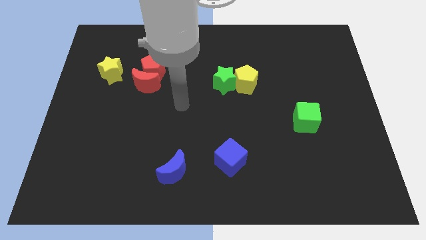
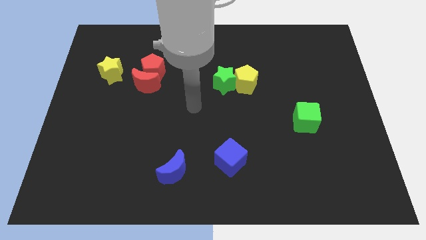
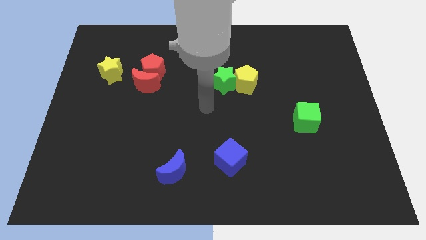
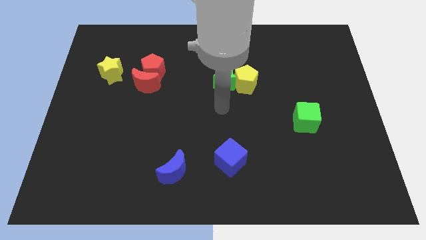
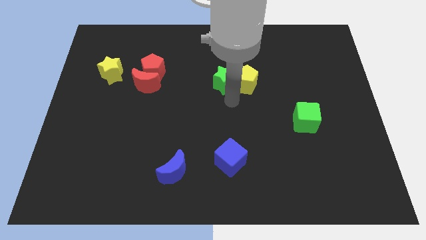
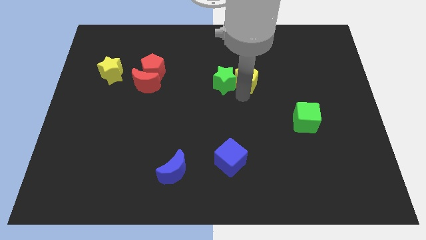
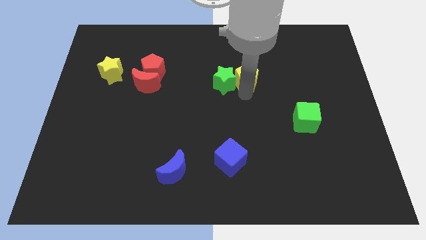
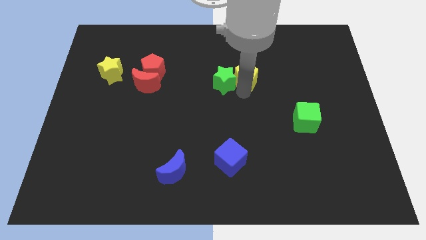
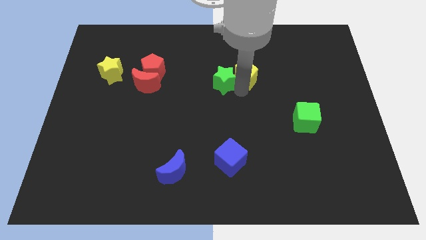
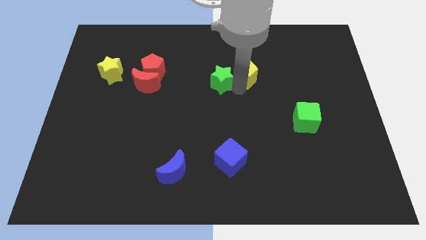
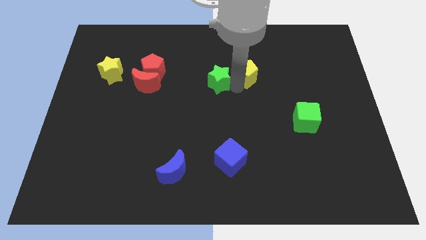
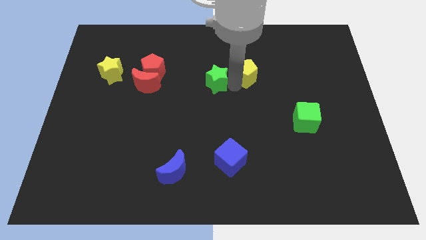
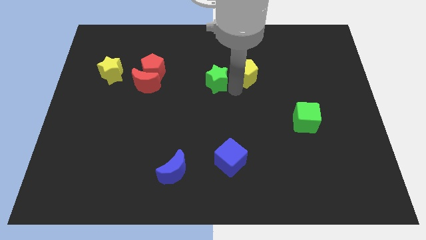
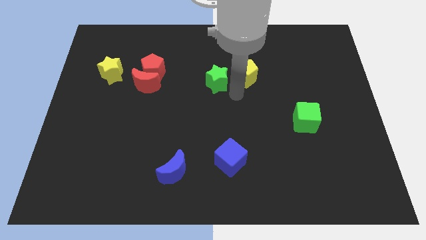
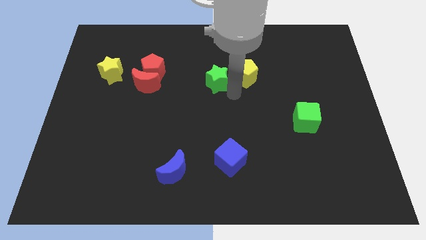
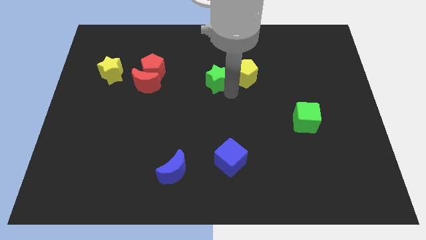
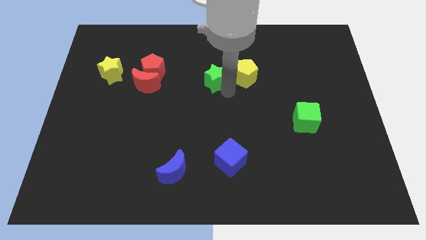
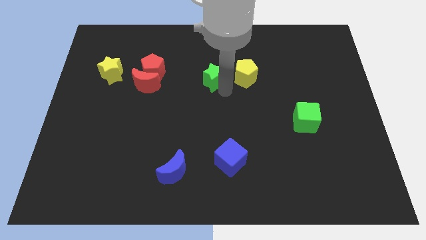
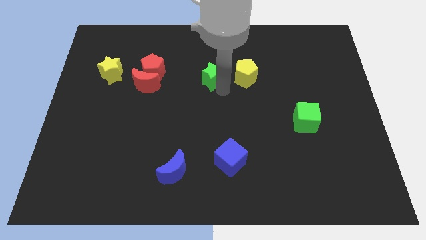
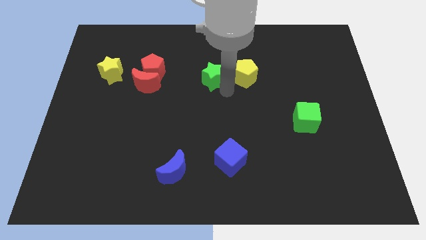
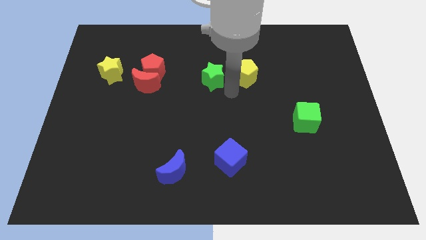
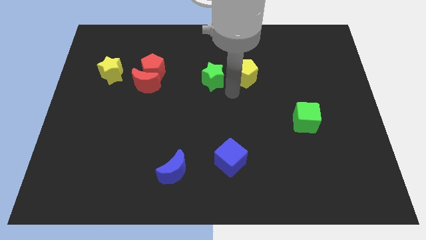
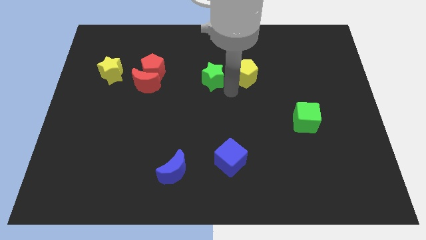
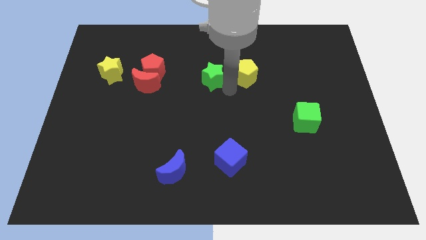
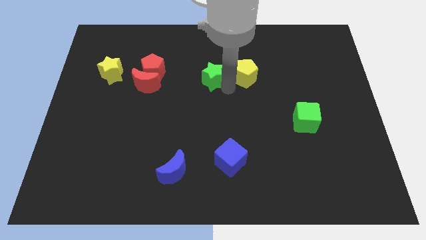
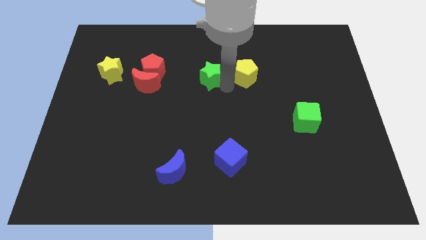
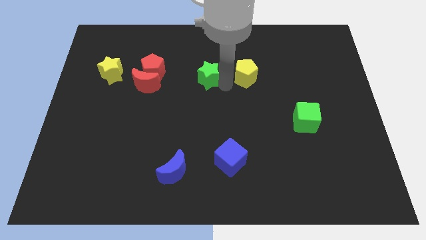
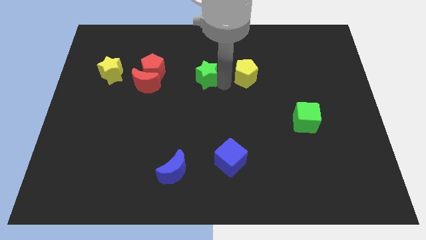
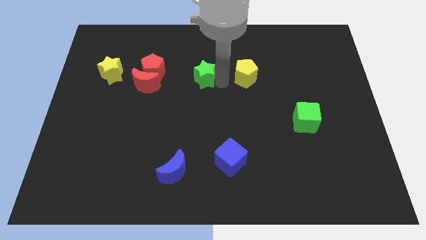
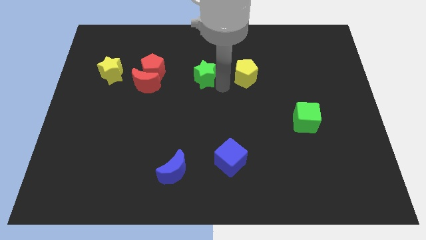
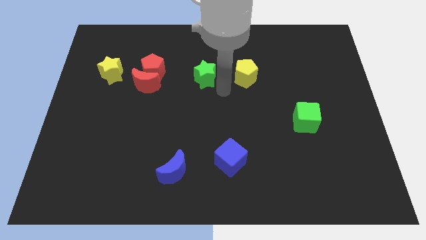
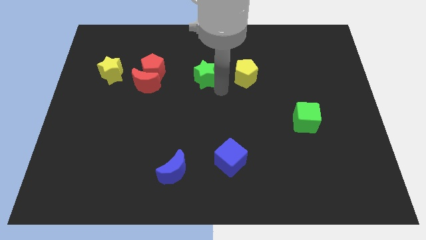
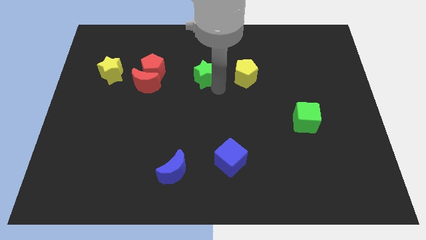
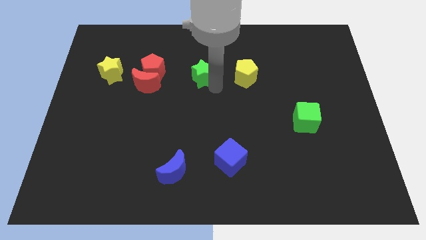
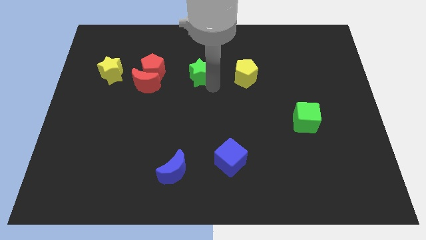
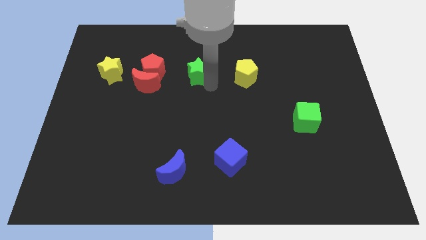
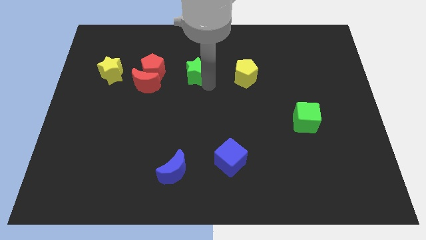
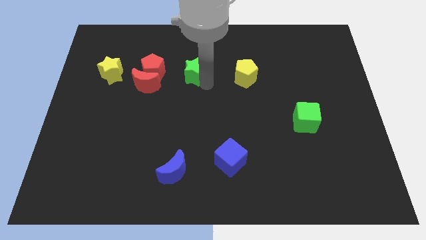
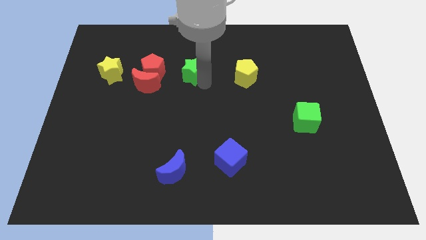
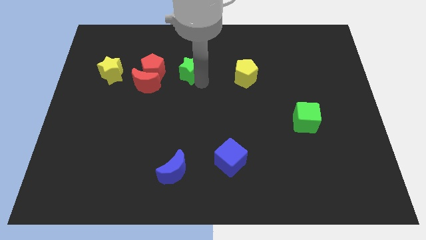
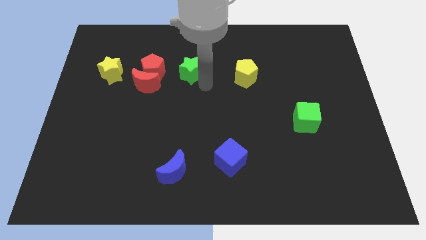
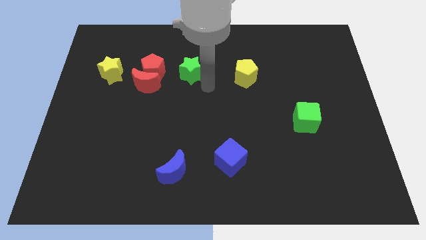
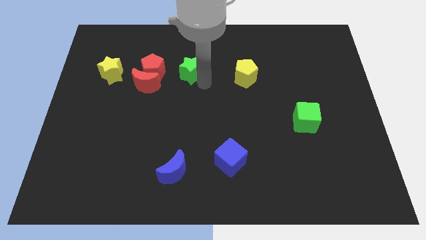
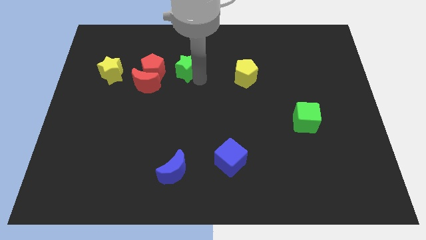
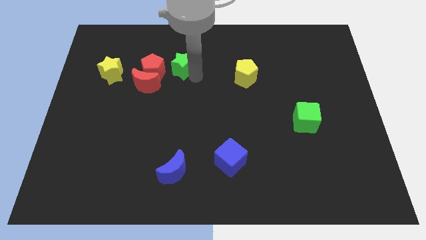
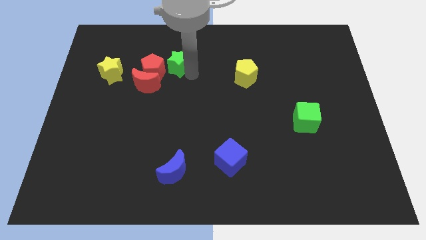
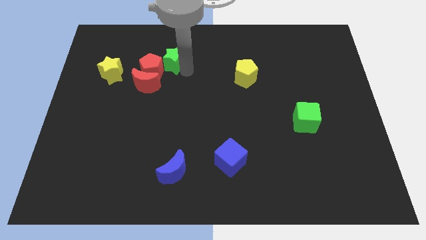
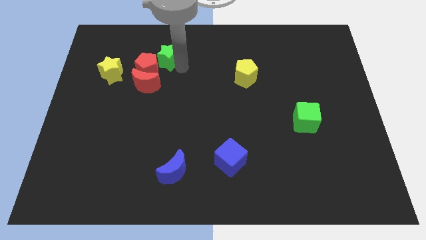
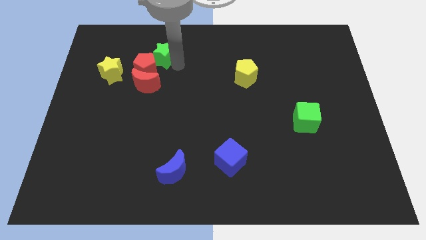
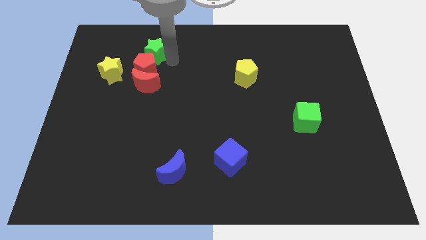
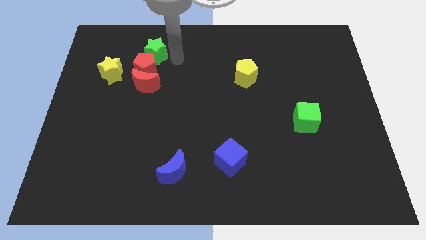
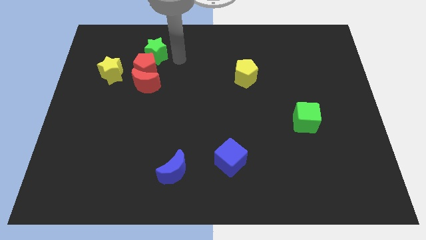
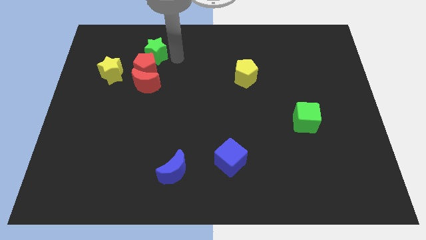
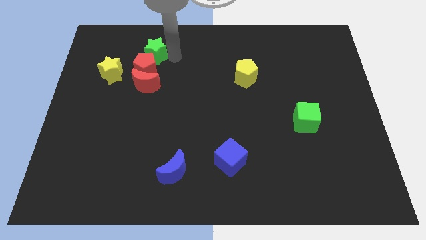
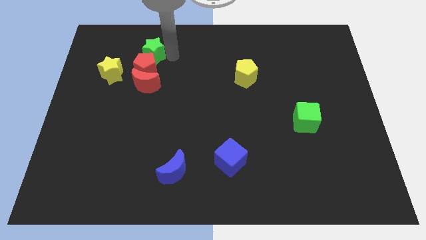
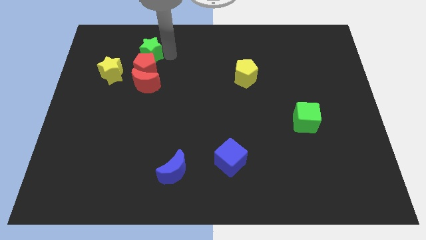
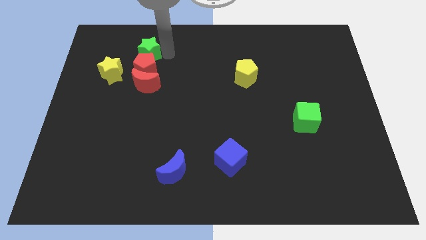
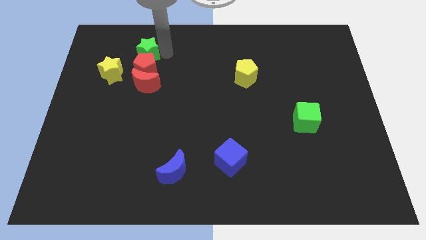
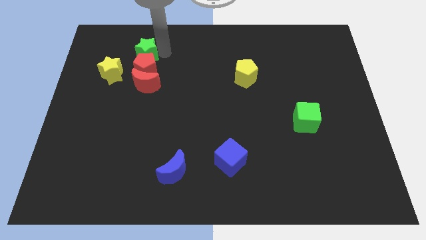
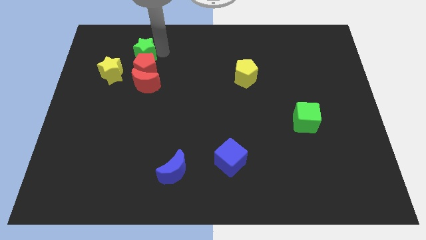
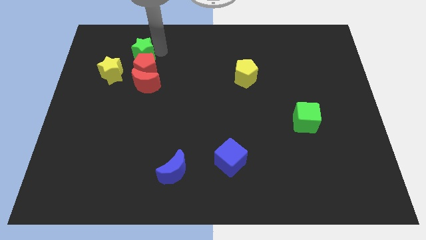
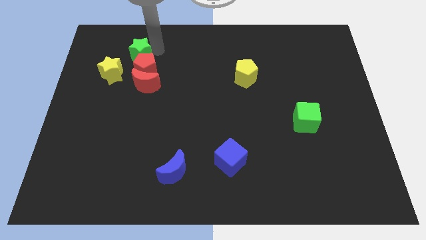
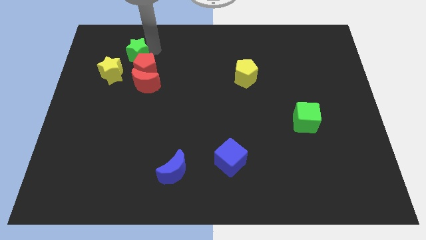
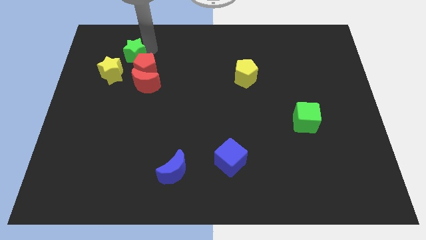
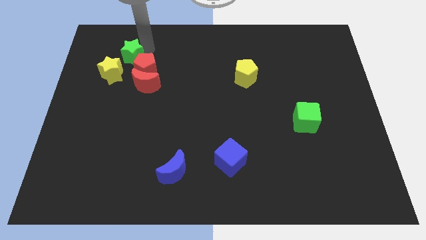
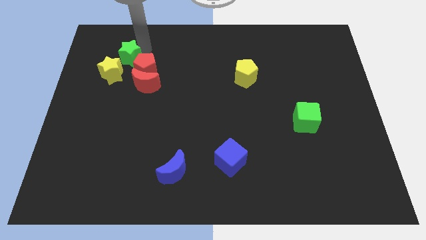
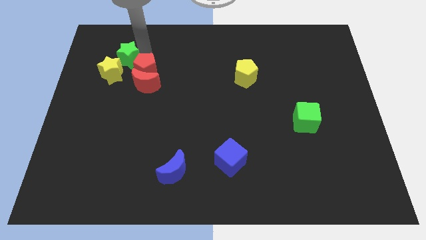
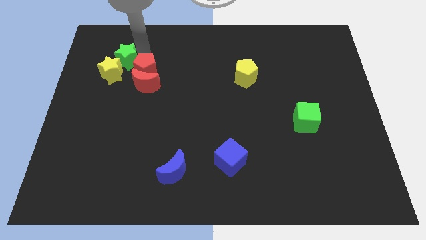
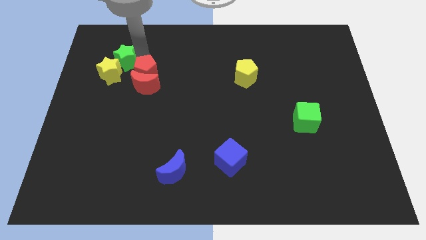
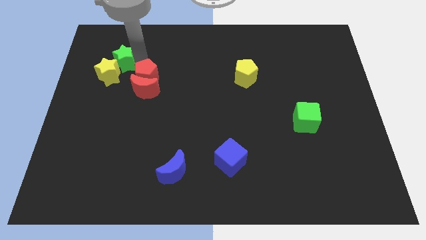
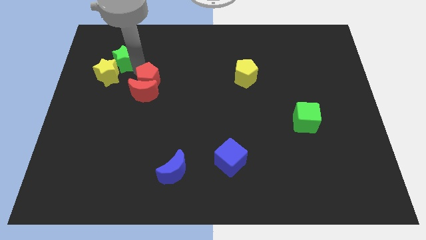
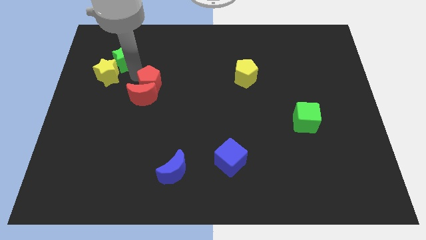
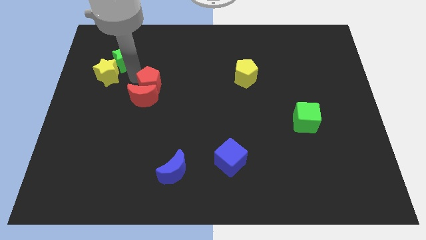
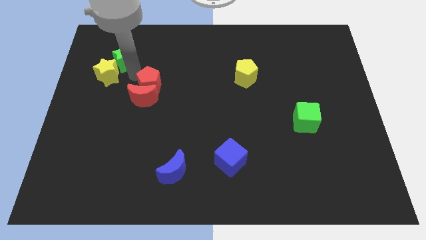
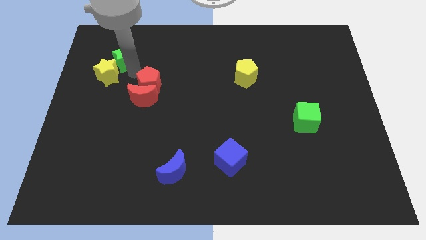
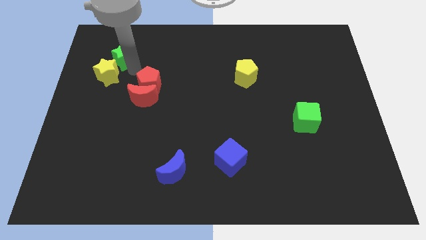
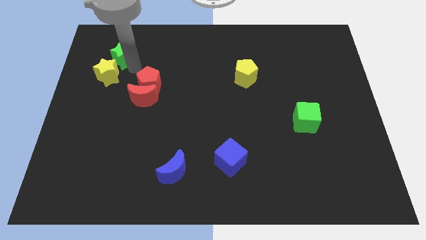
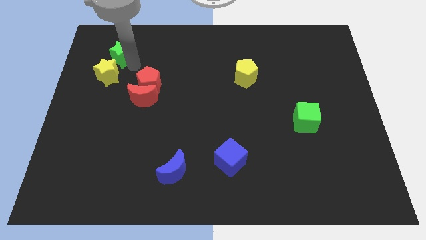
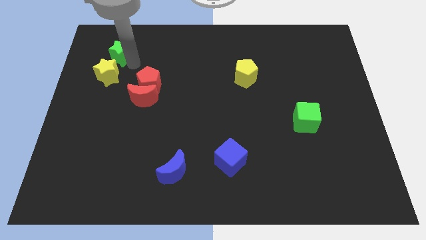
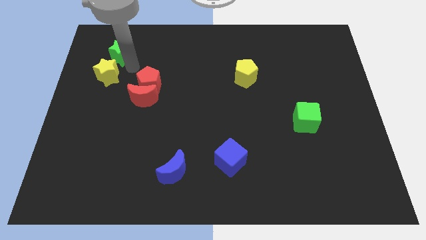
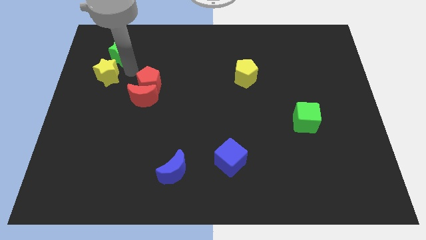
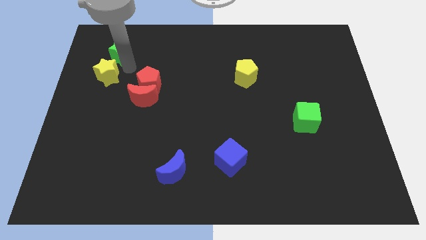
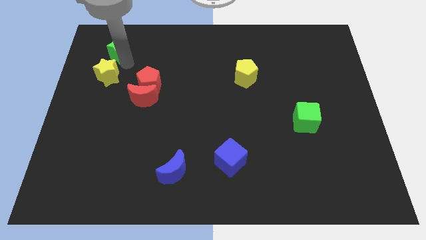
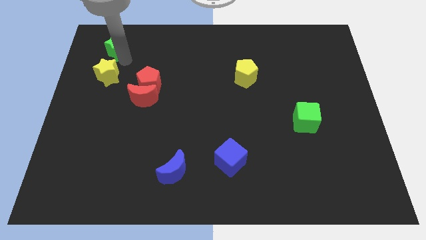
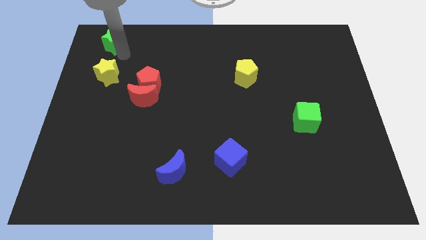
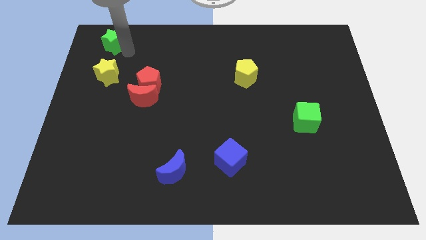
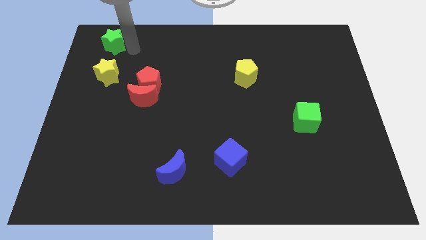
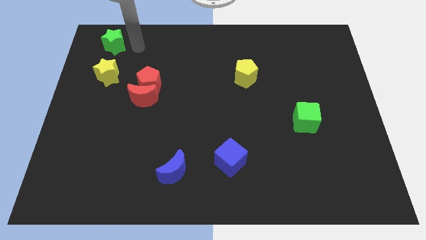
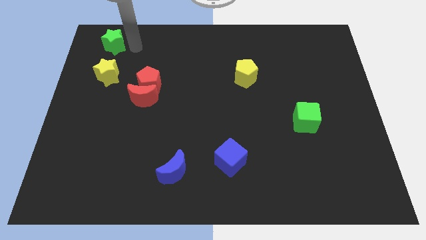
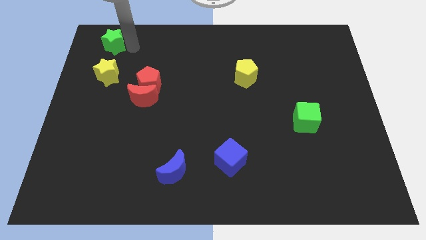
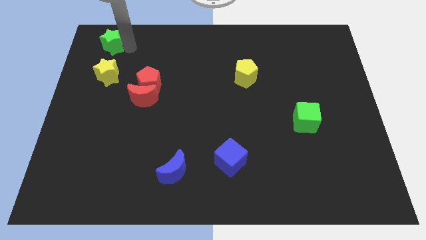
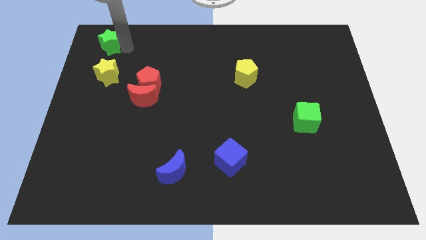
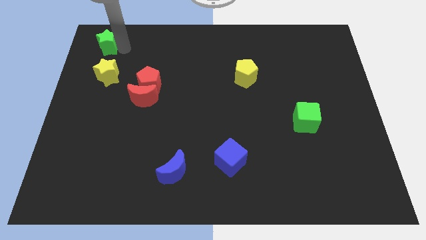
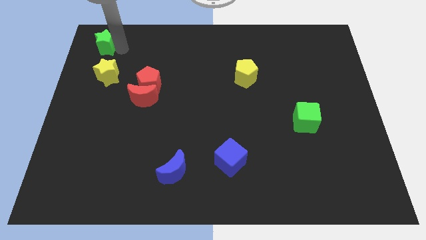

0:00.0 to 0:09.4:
slide the green star to the top left of the board
